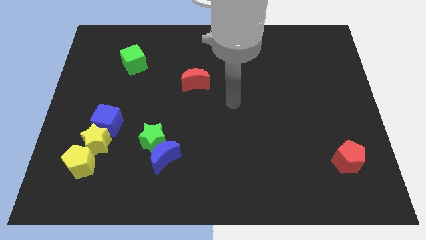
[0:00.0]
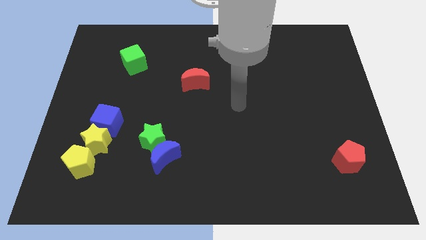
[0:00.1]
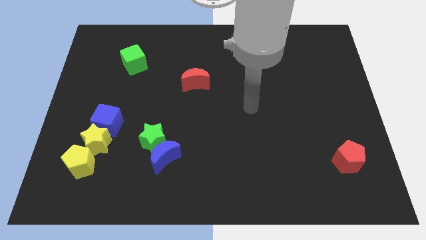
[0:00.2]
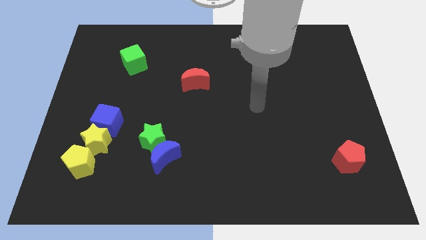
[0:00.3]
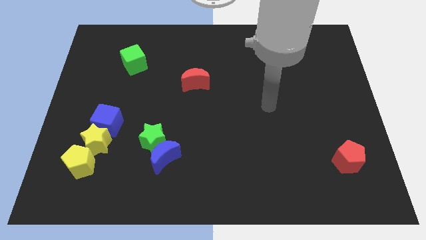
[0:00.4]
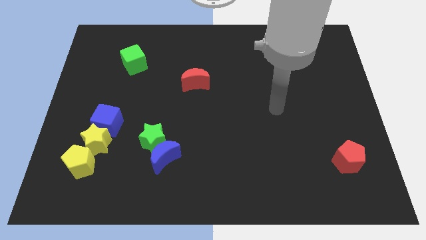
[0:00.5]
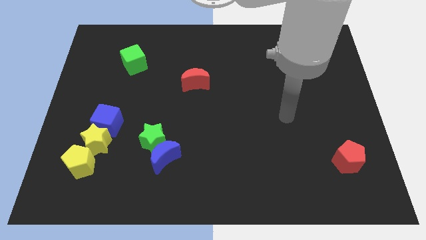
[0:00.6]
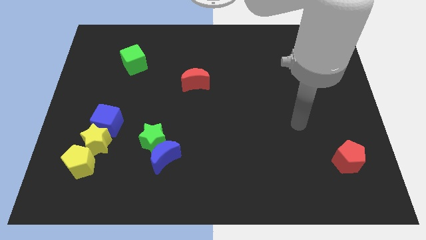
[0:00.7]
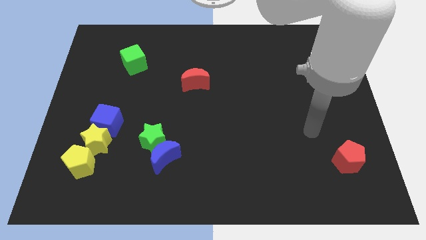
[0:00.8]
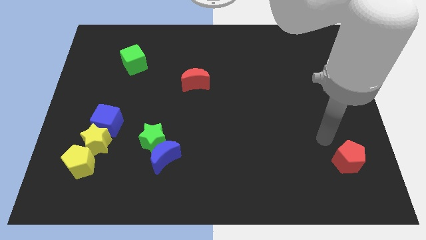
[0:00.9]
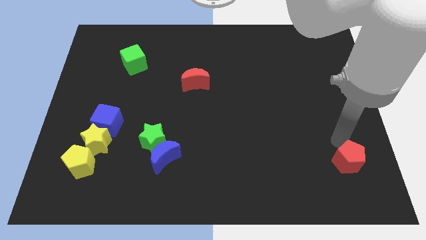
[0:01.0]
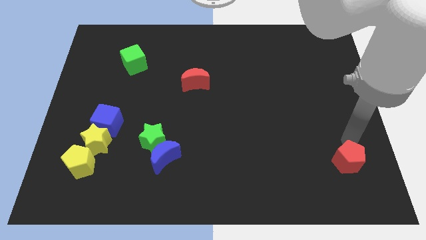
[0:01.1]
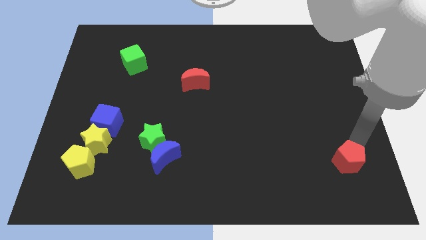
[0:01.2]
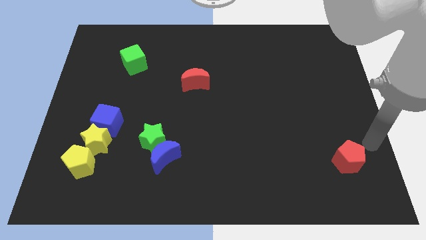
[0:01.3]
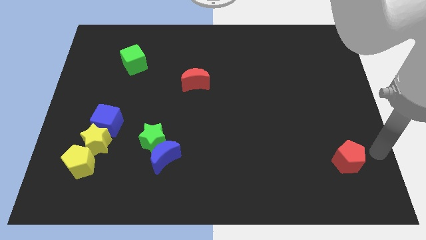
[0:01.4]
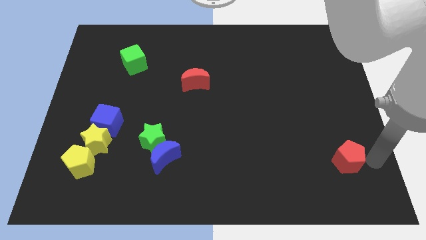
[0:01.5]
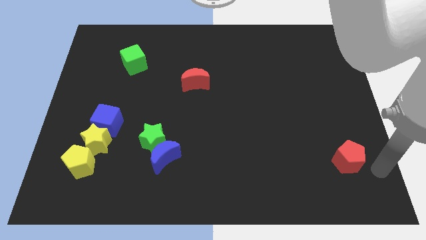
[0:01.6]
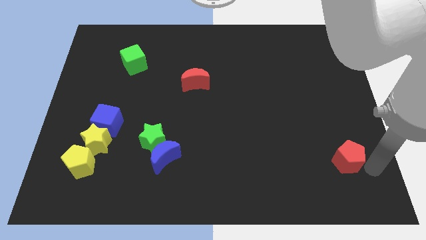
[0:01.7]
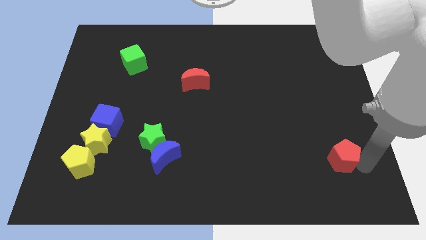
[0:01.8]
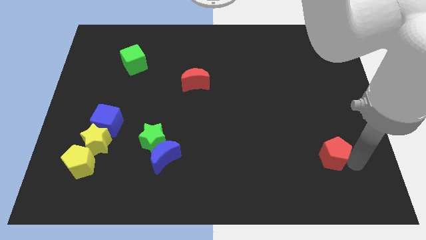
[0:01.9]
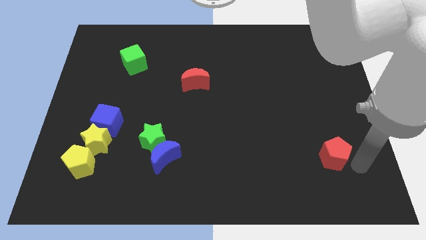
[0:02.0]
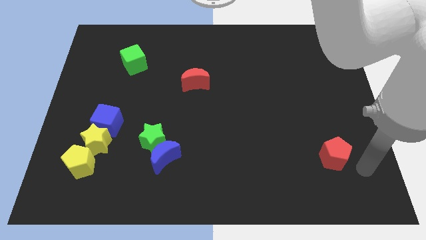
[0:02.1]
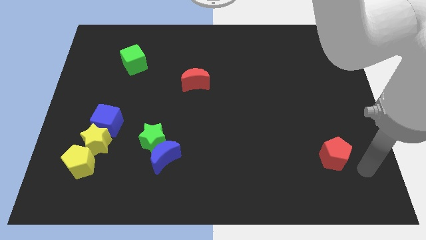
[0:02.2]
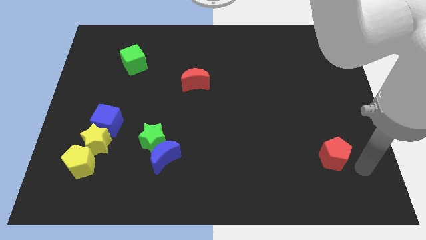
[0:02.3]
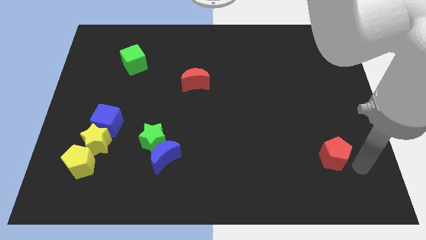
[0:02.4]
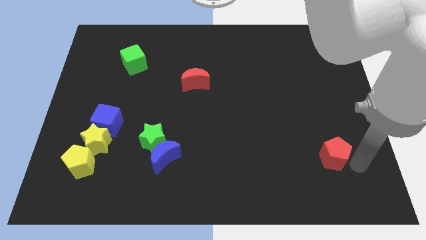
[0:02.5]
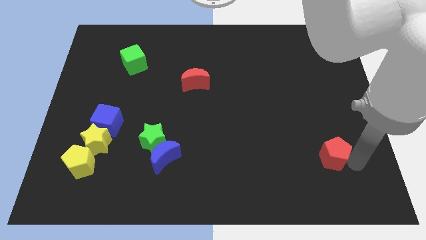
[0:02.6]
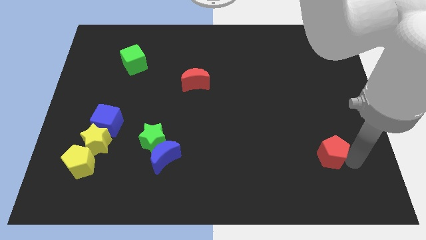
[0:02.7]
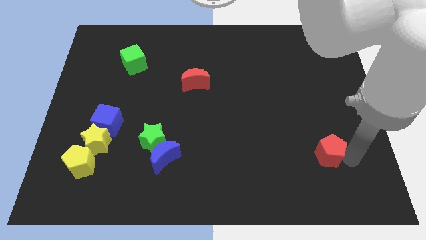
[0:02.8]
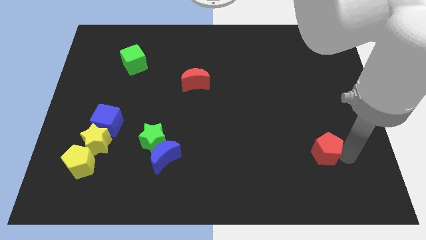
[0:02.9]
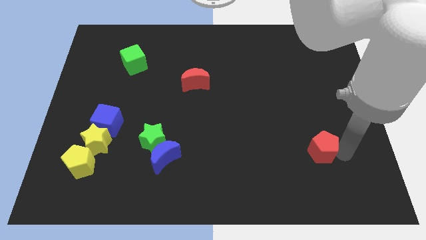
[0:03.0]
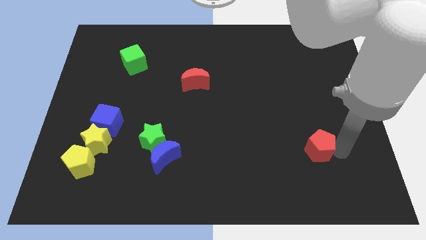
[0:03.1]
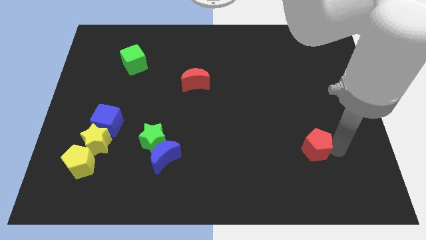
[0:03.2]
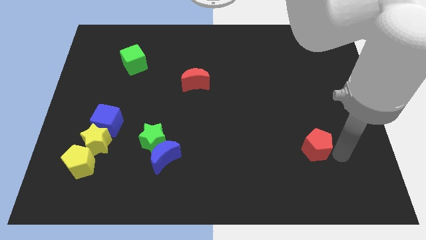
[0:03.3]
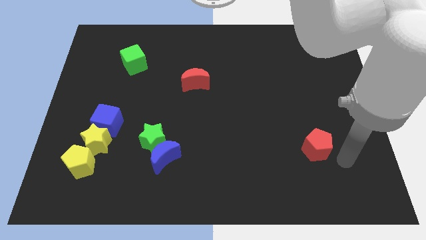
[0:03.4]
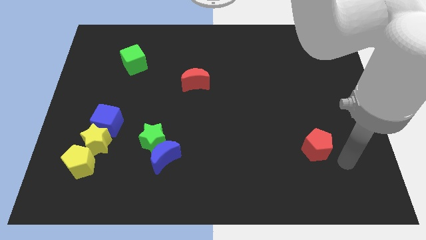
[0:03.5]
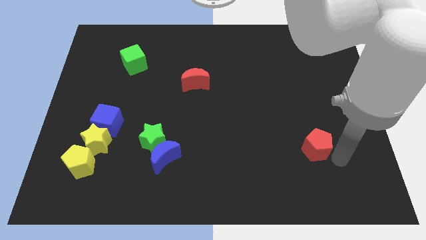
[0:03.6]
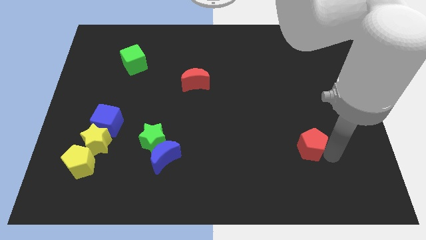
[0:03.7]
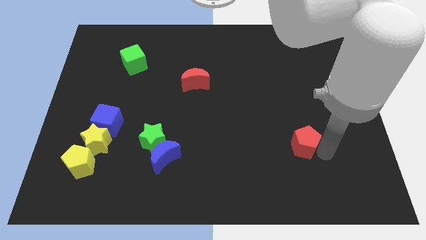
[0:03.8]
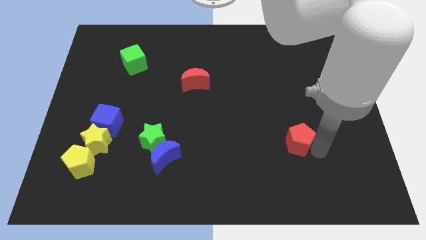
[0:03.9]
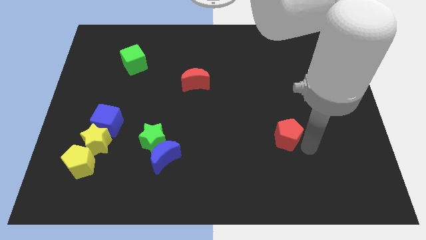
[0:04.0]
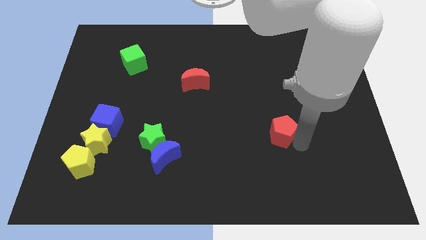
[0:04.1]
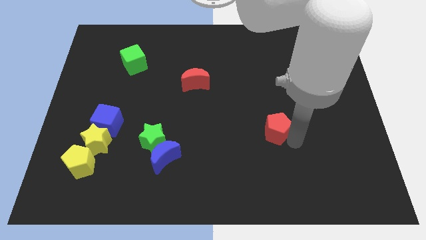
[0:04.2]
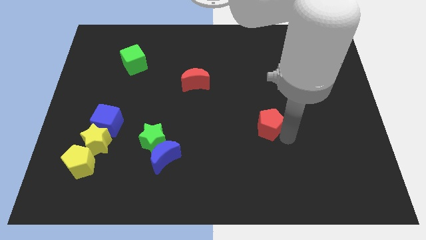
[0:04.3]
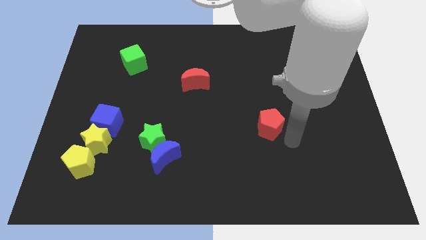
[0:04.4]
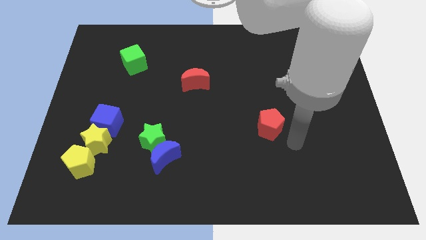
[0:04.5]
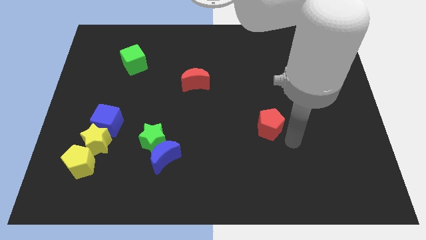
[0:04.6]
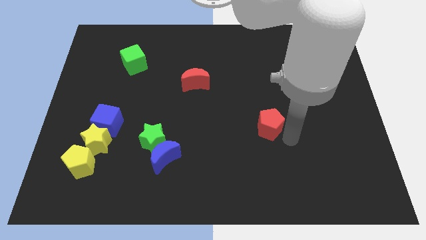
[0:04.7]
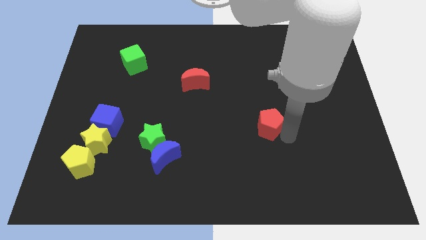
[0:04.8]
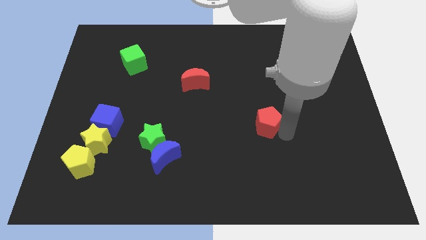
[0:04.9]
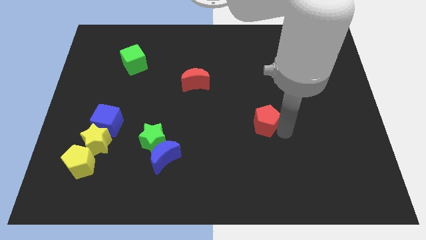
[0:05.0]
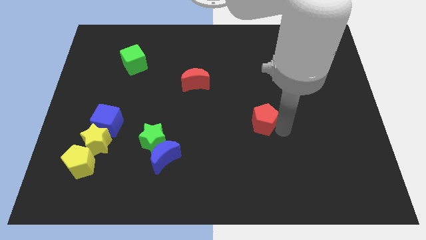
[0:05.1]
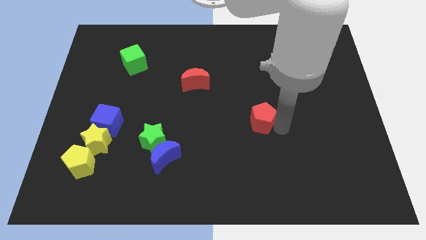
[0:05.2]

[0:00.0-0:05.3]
slide the red pentagon to the middle

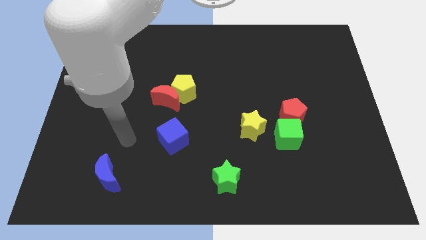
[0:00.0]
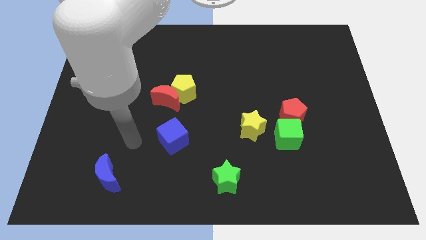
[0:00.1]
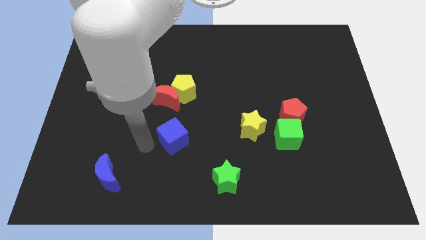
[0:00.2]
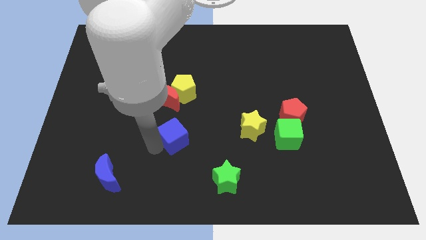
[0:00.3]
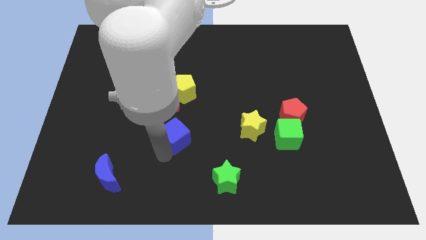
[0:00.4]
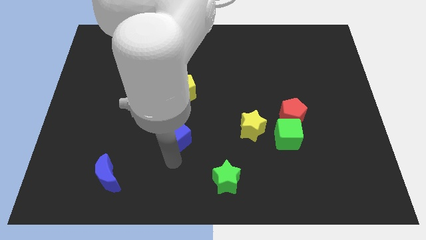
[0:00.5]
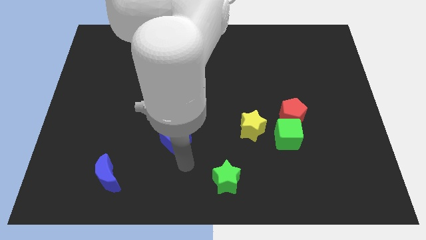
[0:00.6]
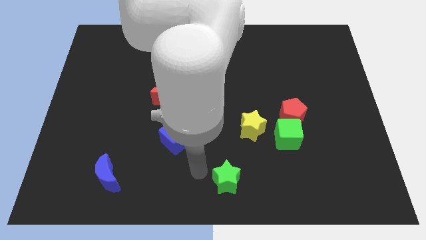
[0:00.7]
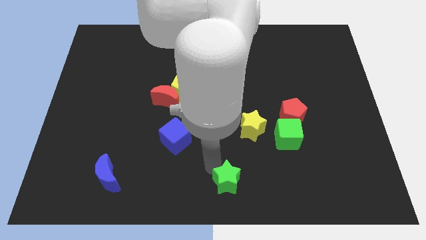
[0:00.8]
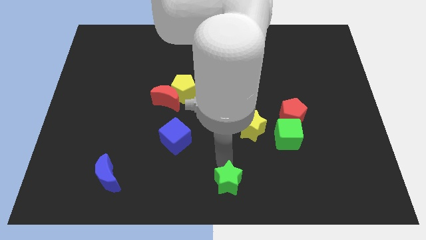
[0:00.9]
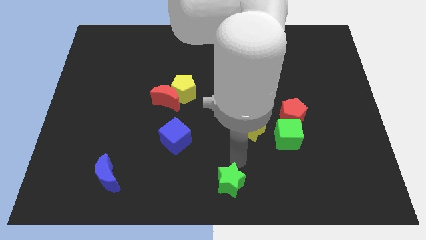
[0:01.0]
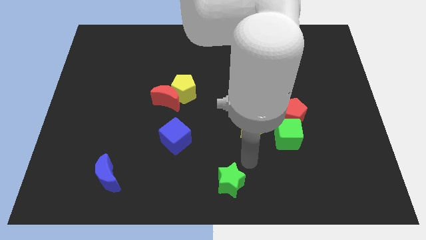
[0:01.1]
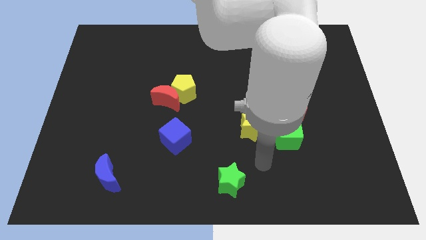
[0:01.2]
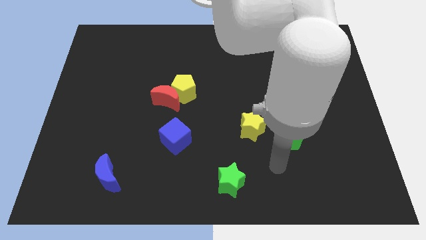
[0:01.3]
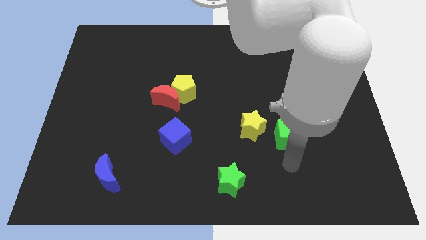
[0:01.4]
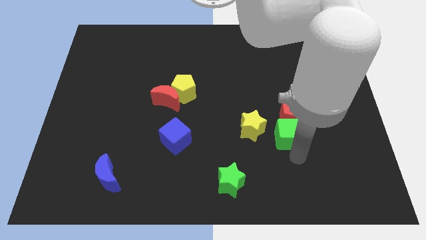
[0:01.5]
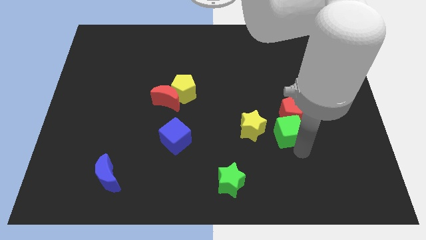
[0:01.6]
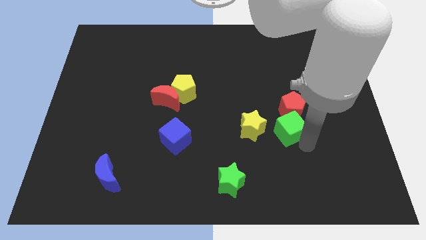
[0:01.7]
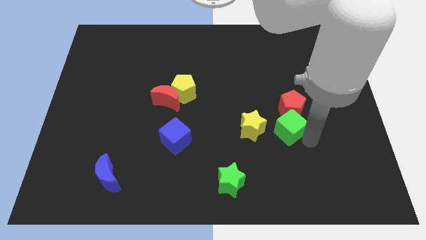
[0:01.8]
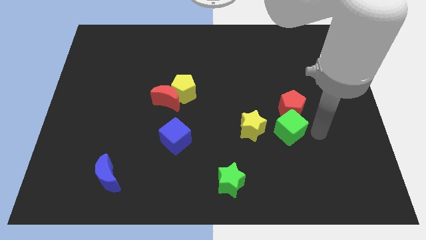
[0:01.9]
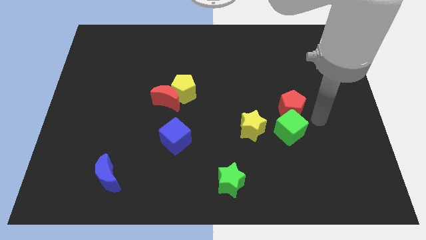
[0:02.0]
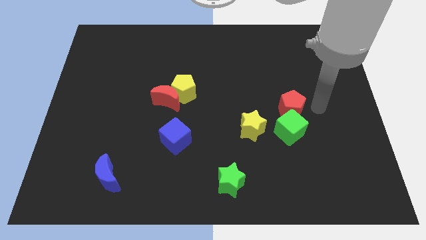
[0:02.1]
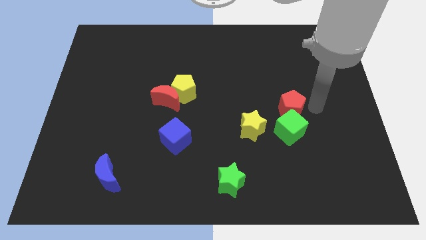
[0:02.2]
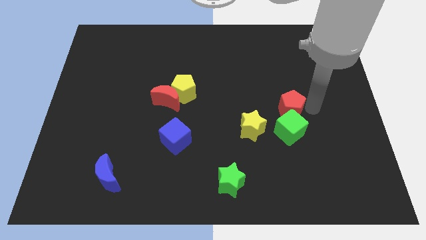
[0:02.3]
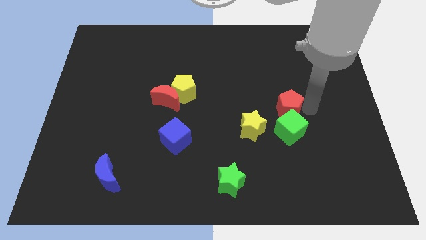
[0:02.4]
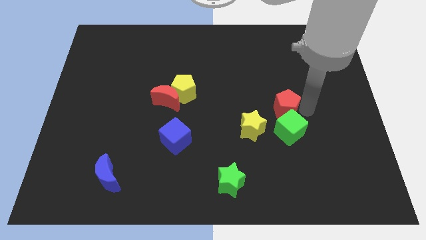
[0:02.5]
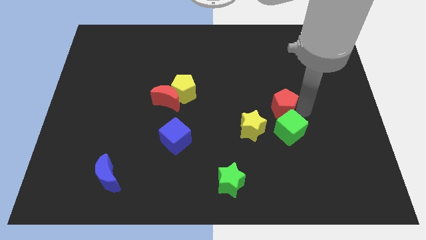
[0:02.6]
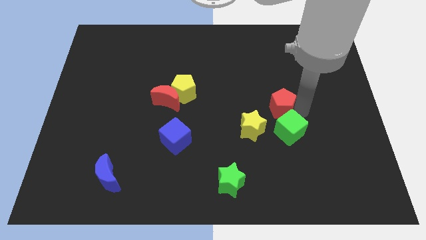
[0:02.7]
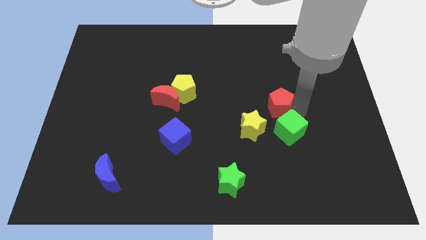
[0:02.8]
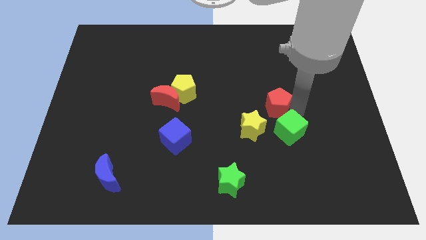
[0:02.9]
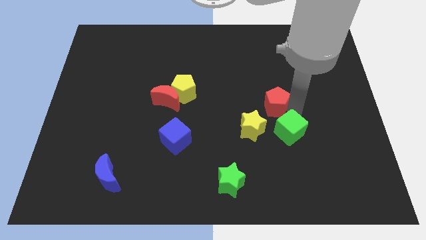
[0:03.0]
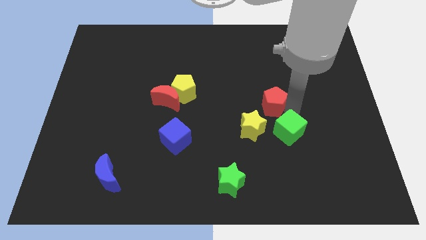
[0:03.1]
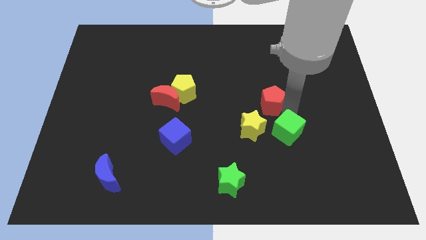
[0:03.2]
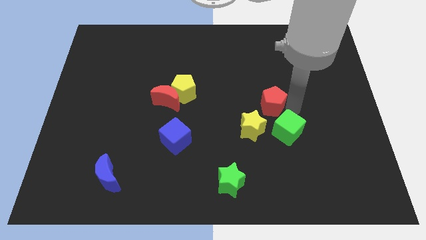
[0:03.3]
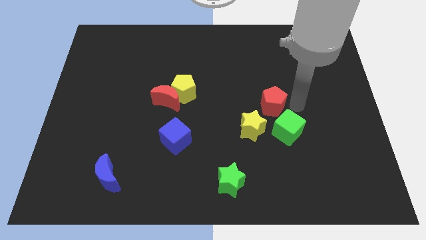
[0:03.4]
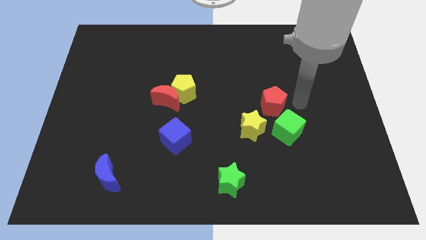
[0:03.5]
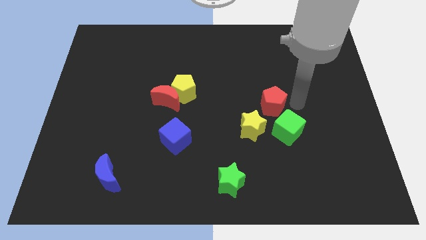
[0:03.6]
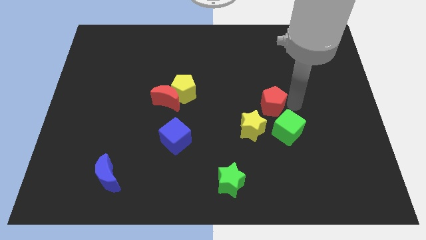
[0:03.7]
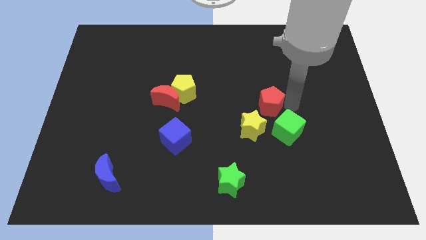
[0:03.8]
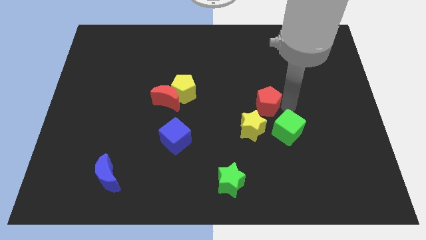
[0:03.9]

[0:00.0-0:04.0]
put the red pentagon to the center of the board
